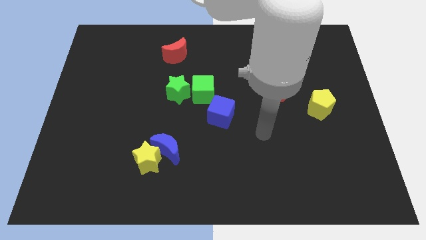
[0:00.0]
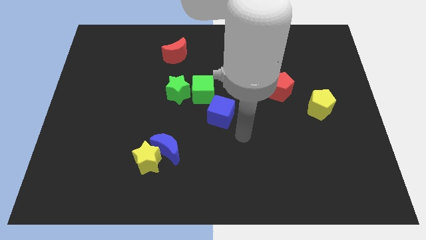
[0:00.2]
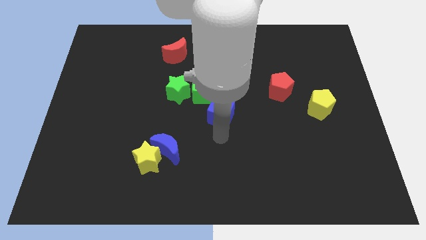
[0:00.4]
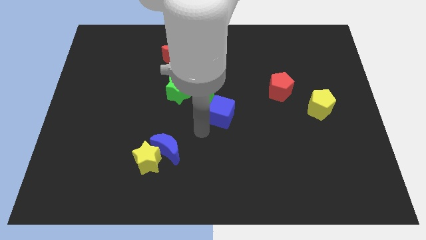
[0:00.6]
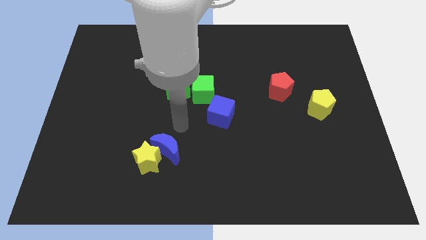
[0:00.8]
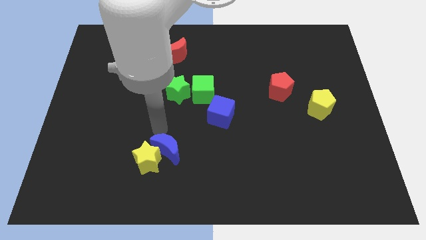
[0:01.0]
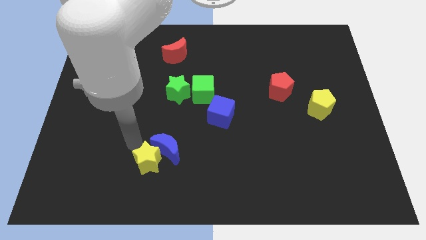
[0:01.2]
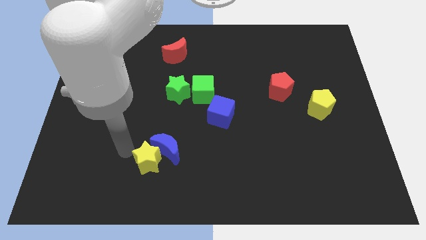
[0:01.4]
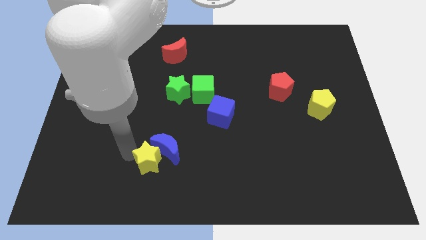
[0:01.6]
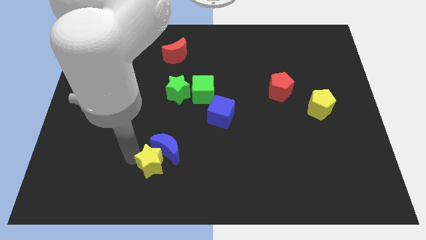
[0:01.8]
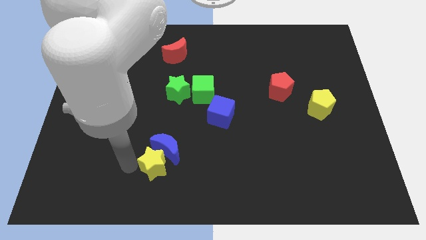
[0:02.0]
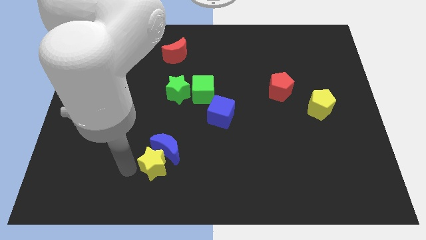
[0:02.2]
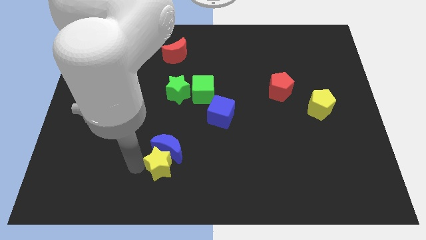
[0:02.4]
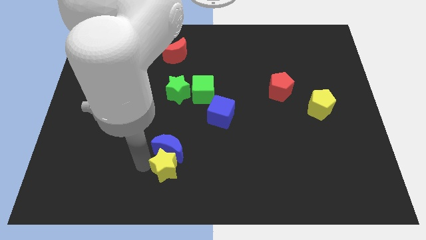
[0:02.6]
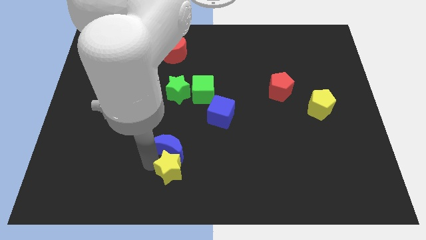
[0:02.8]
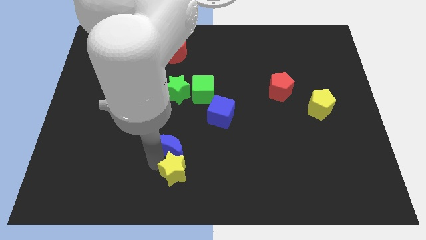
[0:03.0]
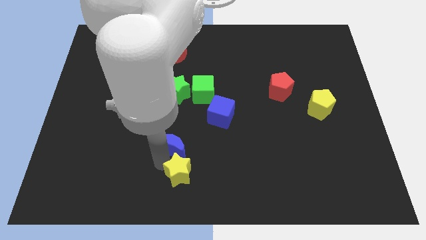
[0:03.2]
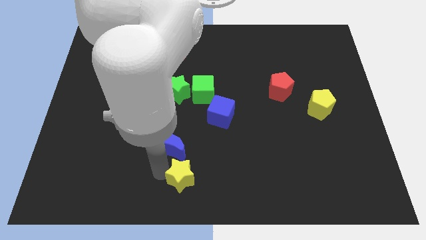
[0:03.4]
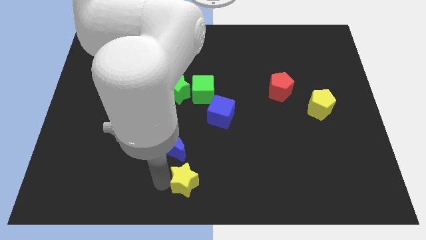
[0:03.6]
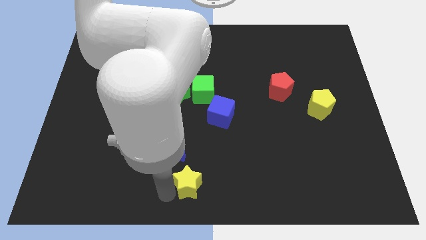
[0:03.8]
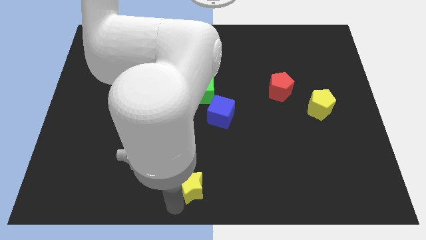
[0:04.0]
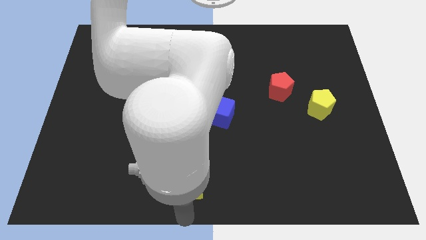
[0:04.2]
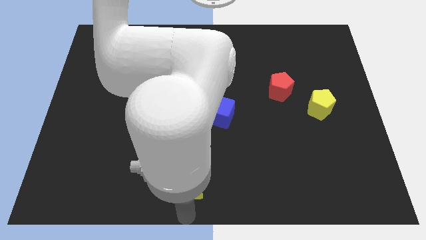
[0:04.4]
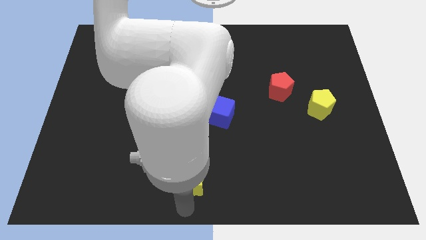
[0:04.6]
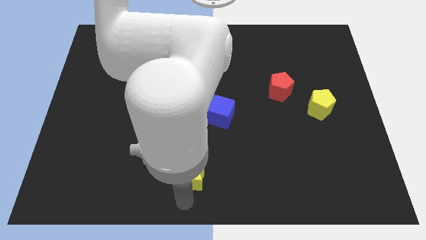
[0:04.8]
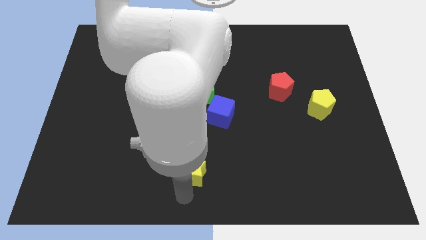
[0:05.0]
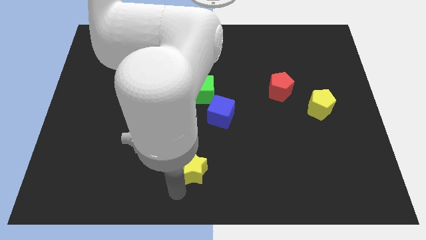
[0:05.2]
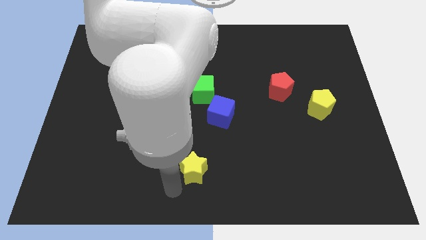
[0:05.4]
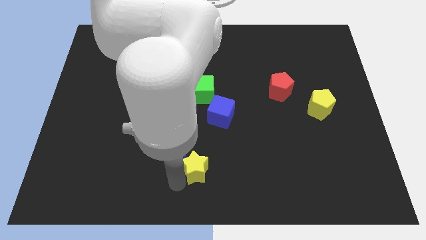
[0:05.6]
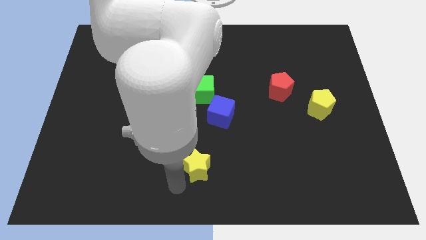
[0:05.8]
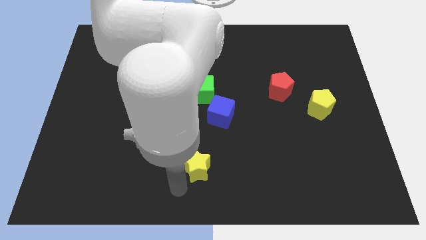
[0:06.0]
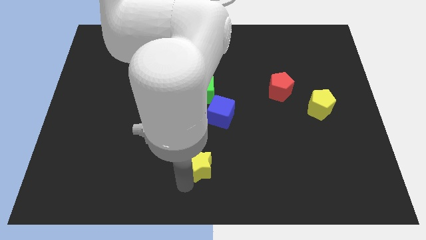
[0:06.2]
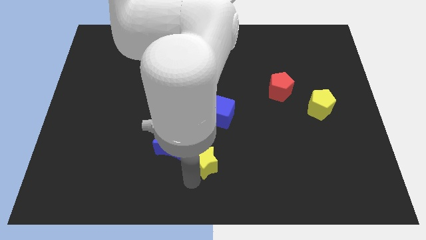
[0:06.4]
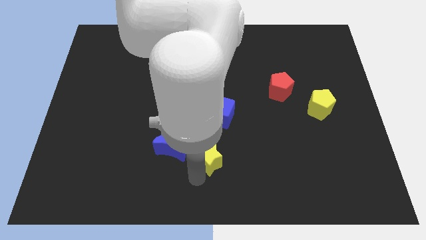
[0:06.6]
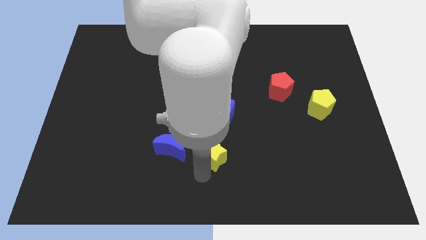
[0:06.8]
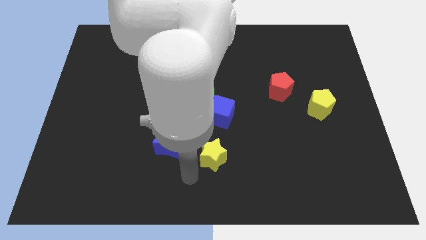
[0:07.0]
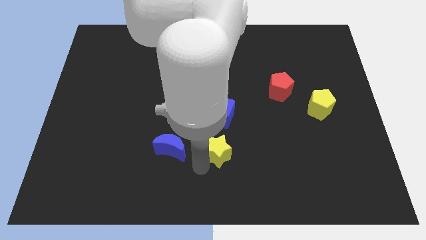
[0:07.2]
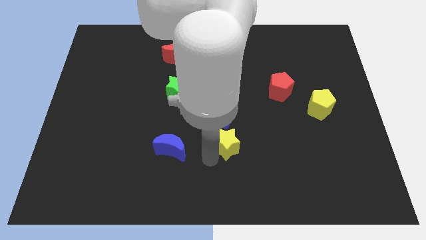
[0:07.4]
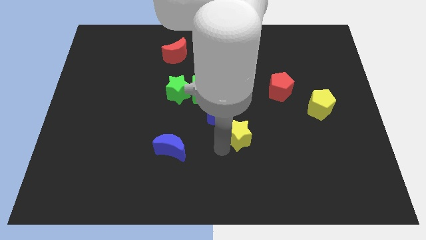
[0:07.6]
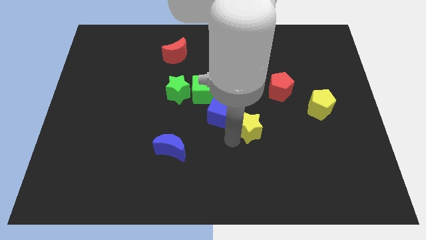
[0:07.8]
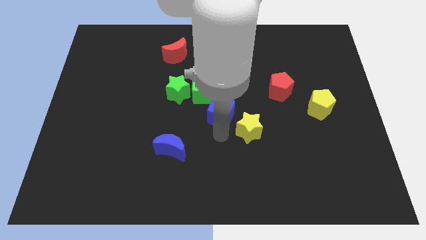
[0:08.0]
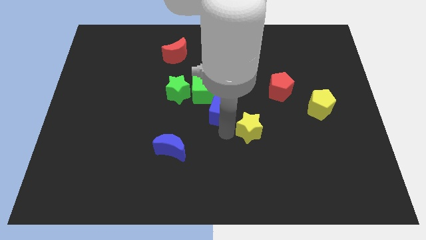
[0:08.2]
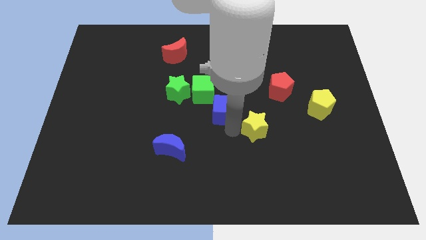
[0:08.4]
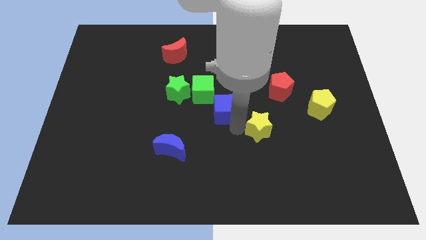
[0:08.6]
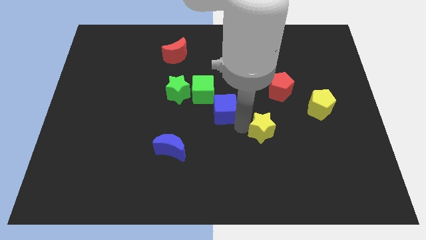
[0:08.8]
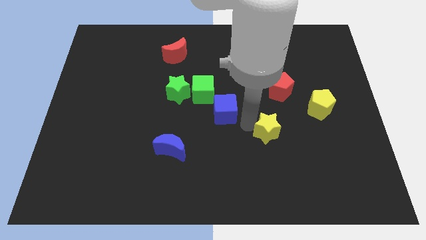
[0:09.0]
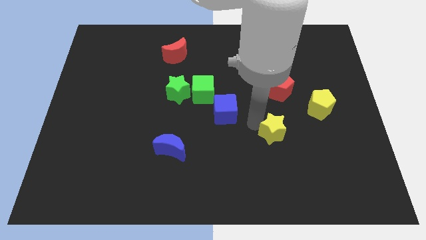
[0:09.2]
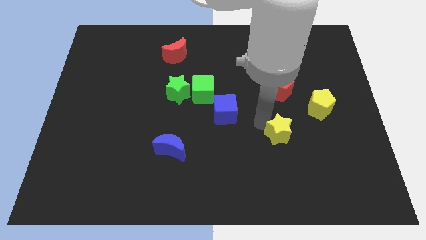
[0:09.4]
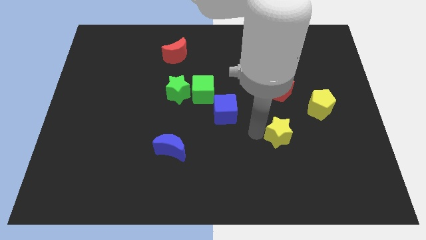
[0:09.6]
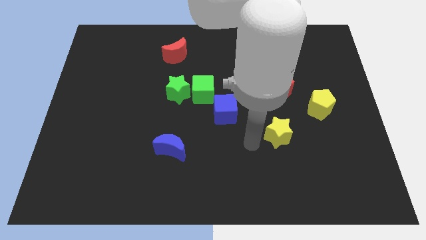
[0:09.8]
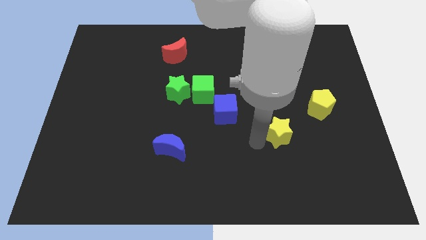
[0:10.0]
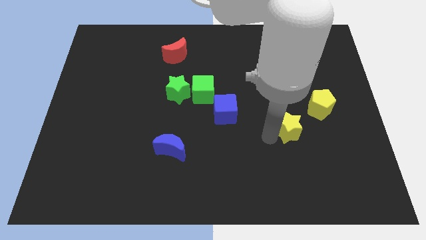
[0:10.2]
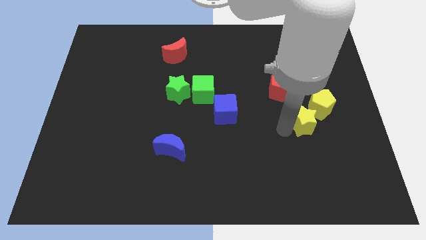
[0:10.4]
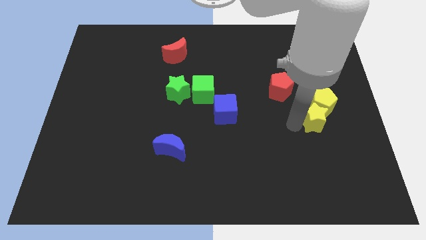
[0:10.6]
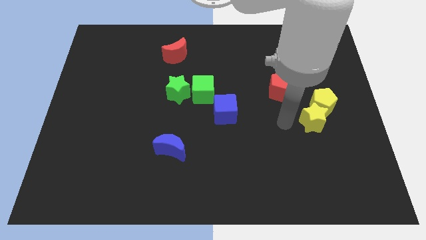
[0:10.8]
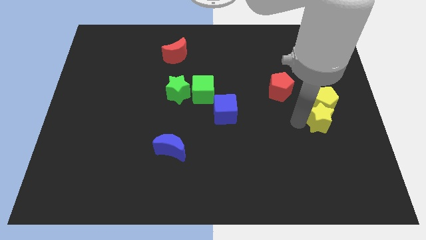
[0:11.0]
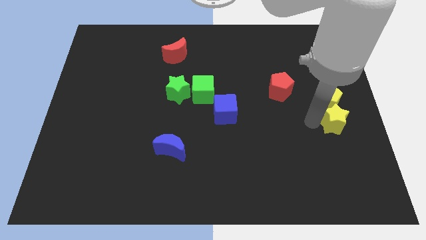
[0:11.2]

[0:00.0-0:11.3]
push the yellow star to the right side of the board

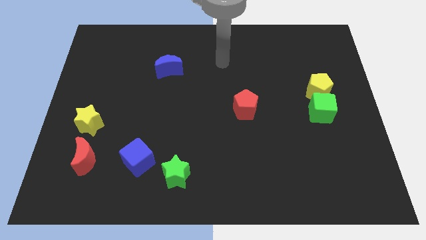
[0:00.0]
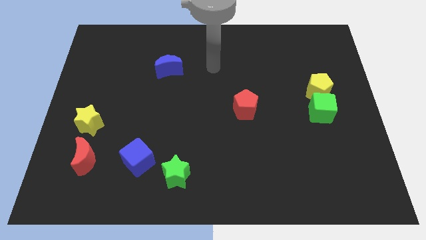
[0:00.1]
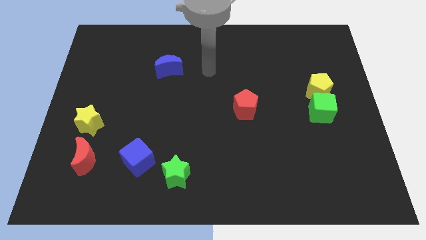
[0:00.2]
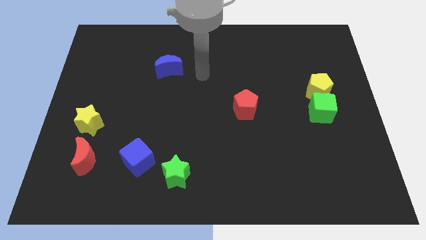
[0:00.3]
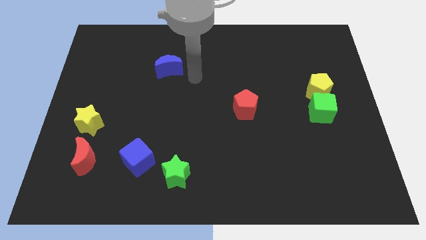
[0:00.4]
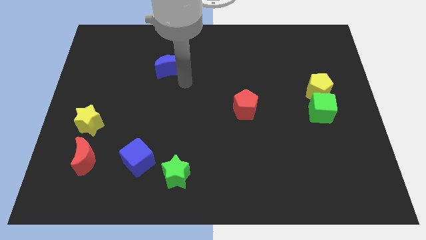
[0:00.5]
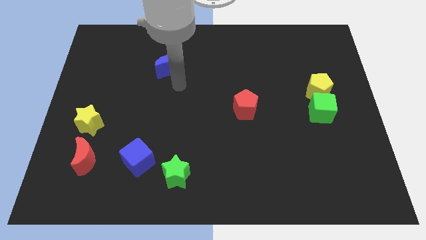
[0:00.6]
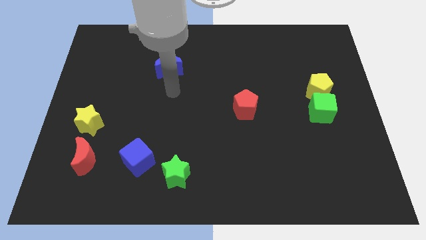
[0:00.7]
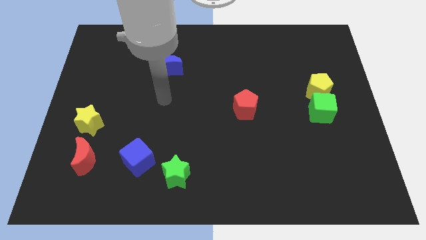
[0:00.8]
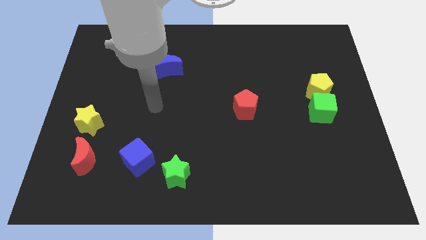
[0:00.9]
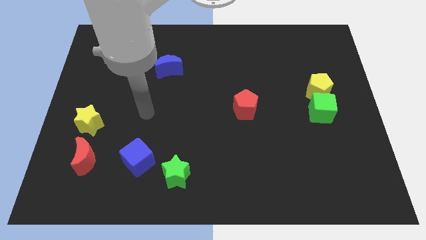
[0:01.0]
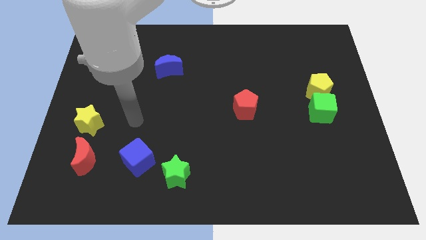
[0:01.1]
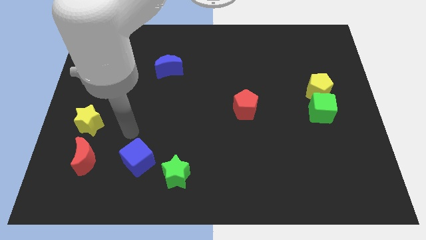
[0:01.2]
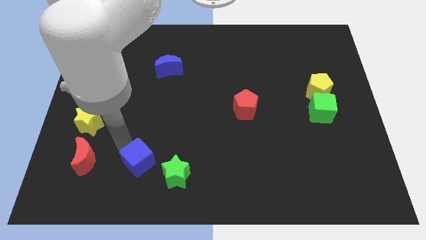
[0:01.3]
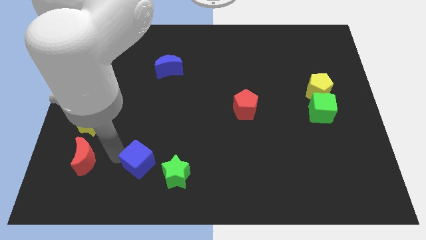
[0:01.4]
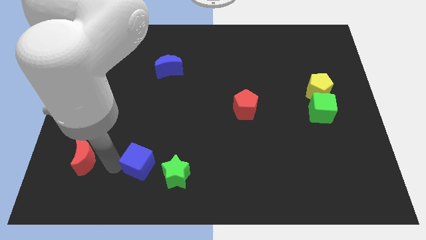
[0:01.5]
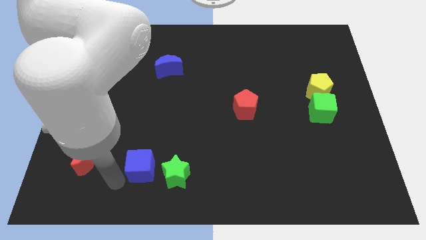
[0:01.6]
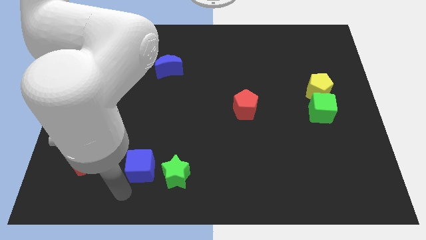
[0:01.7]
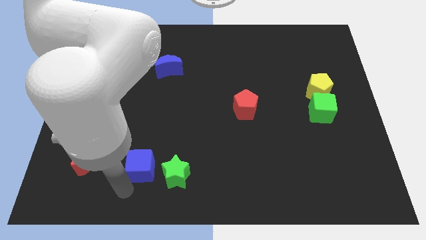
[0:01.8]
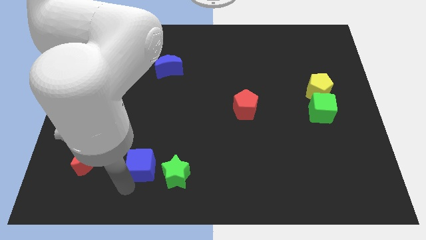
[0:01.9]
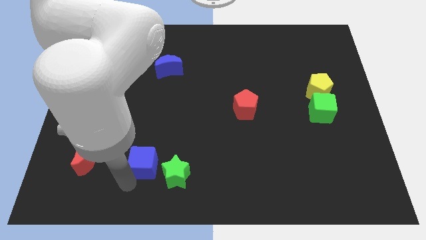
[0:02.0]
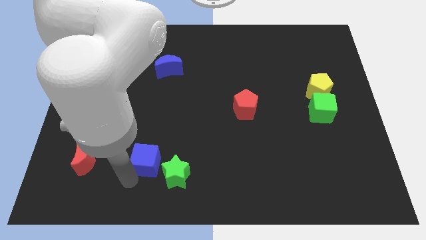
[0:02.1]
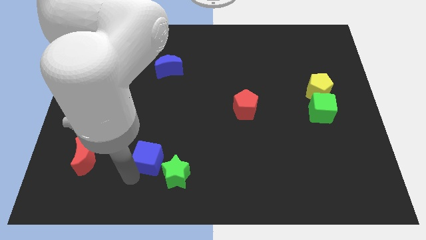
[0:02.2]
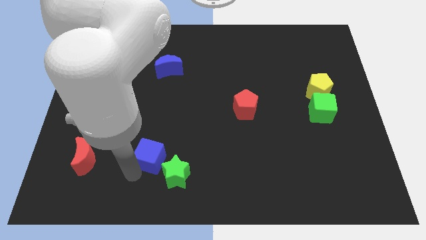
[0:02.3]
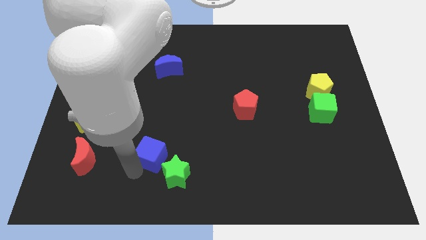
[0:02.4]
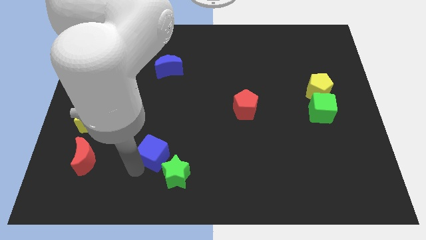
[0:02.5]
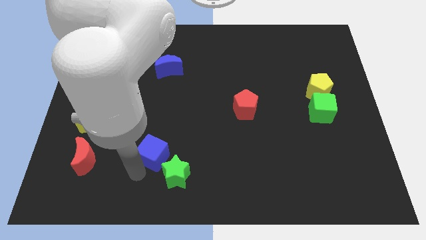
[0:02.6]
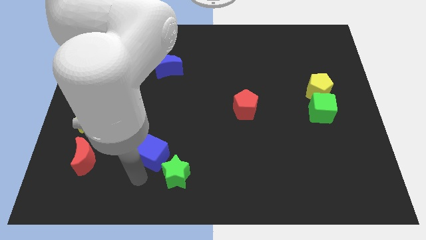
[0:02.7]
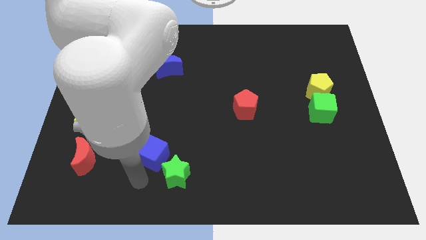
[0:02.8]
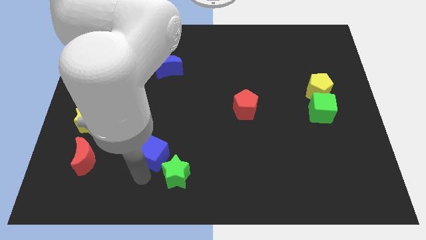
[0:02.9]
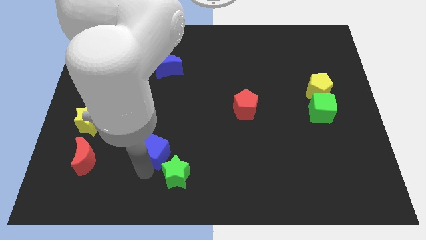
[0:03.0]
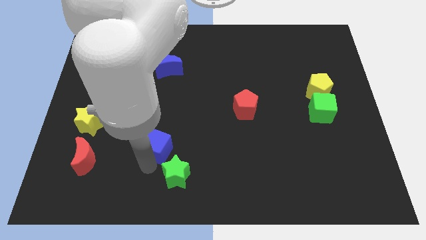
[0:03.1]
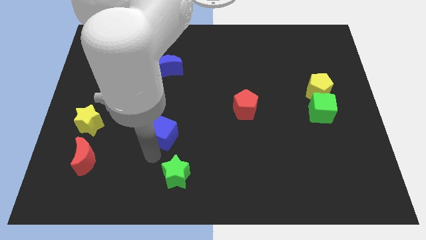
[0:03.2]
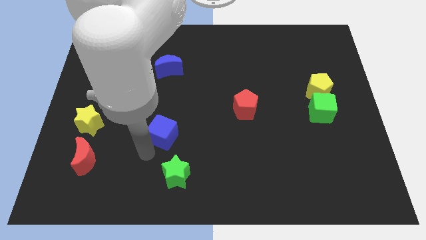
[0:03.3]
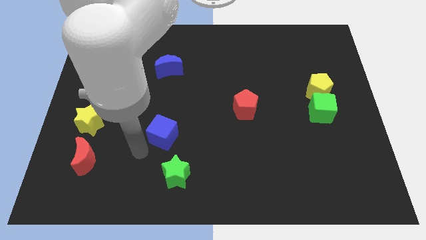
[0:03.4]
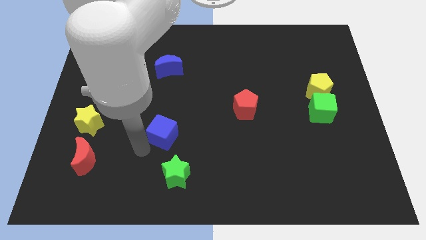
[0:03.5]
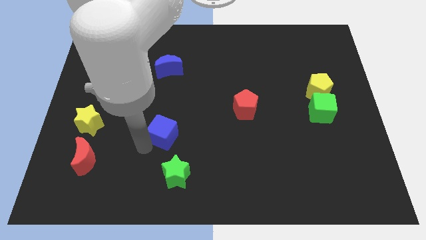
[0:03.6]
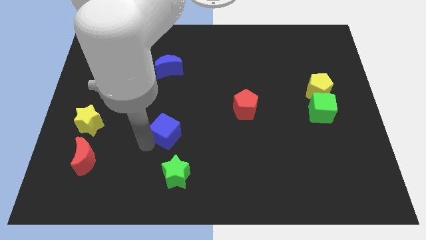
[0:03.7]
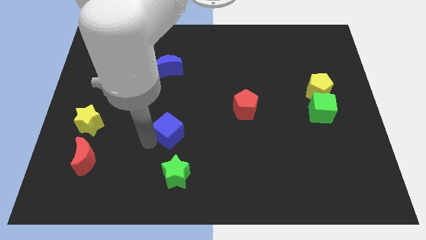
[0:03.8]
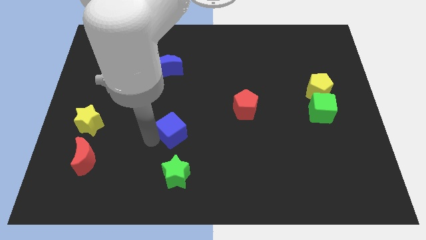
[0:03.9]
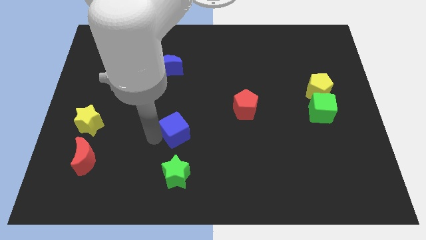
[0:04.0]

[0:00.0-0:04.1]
move the blue cube to the middle
